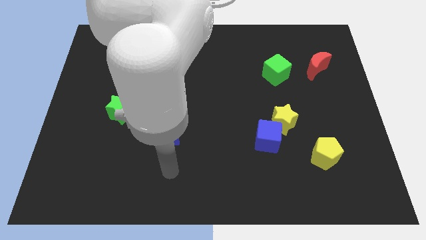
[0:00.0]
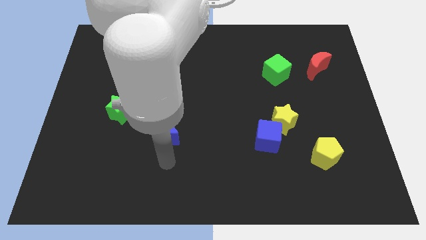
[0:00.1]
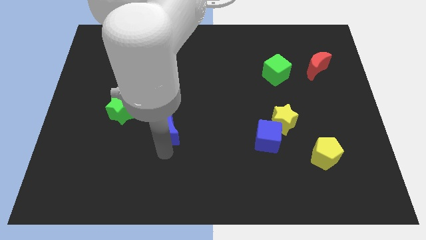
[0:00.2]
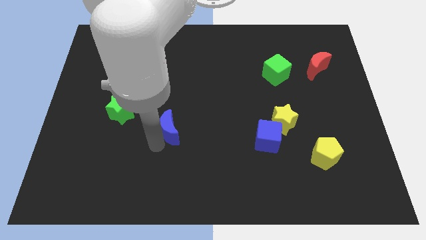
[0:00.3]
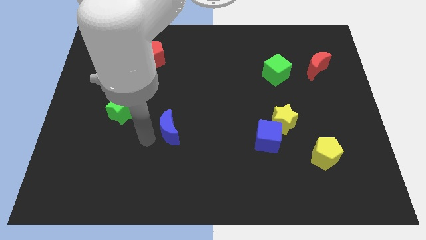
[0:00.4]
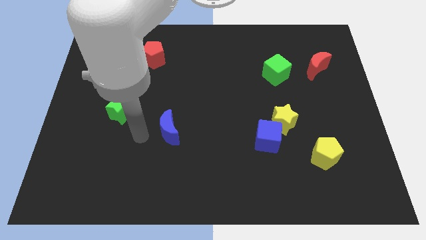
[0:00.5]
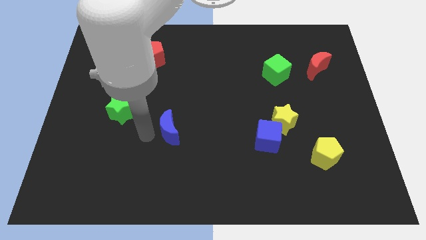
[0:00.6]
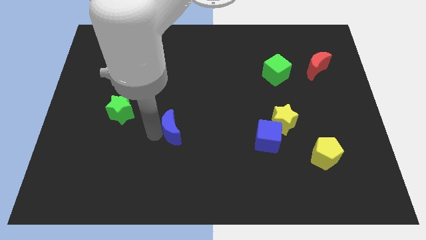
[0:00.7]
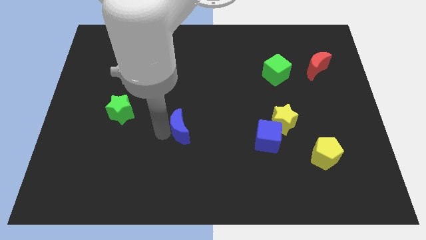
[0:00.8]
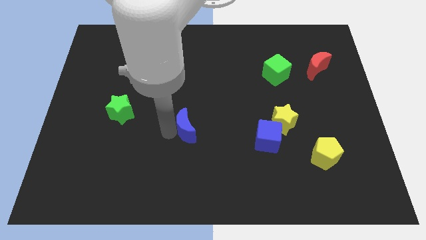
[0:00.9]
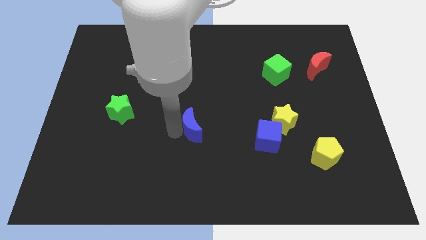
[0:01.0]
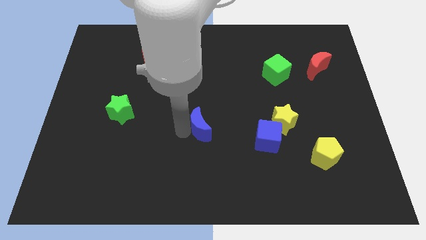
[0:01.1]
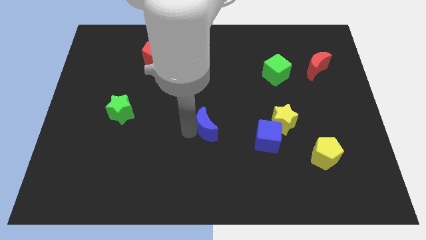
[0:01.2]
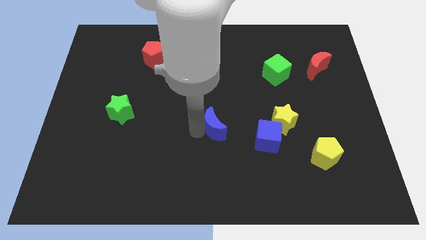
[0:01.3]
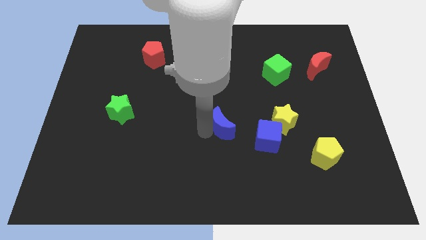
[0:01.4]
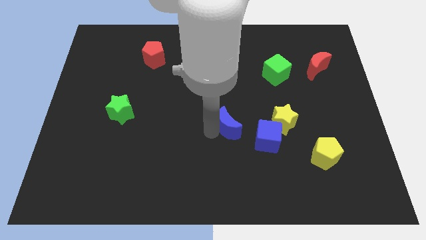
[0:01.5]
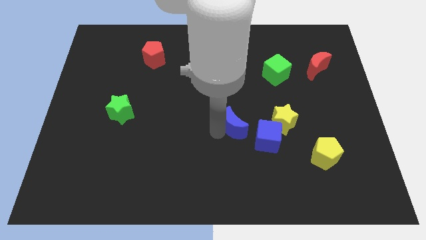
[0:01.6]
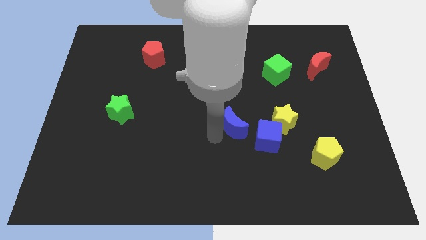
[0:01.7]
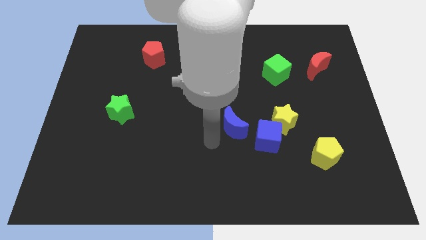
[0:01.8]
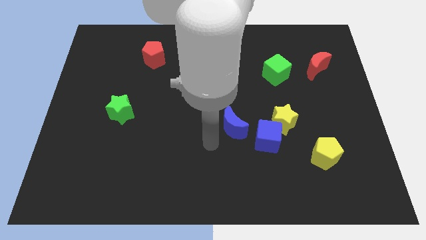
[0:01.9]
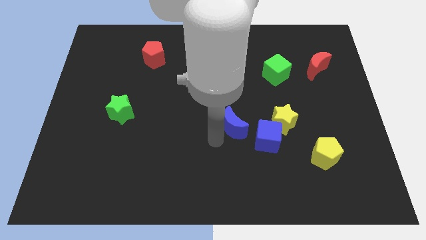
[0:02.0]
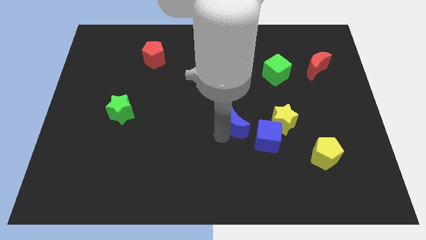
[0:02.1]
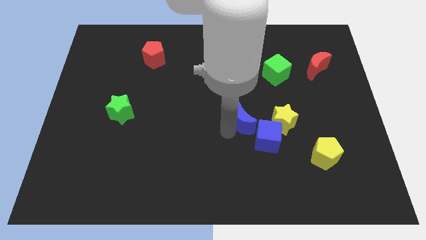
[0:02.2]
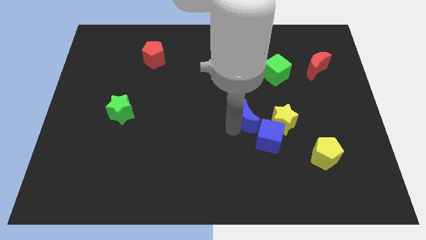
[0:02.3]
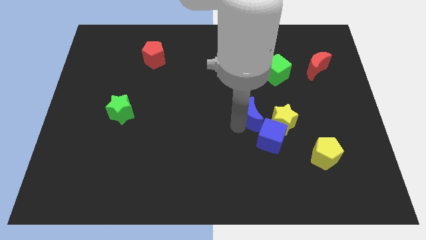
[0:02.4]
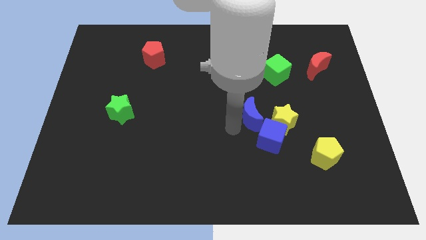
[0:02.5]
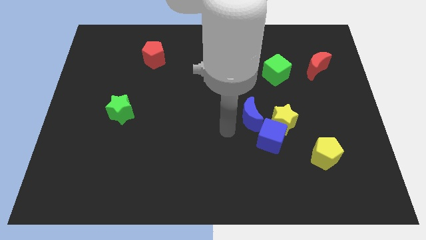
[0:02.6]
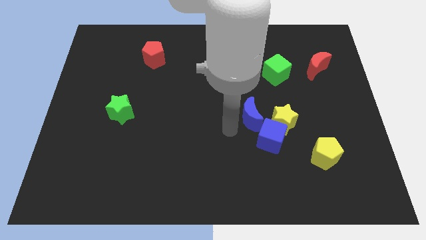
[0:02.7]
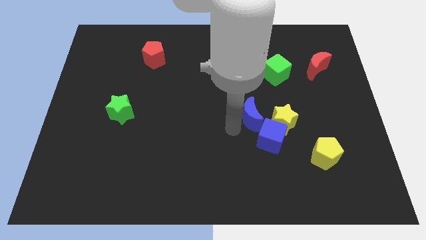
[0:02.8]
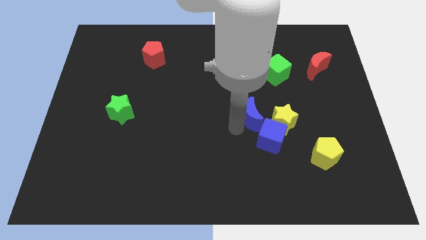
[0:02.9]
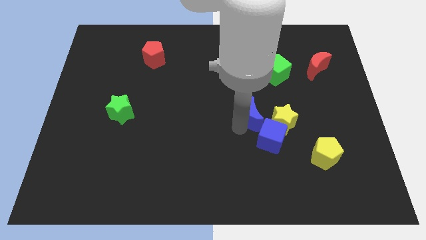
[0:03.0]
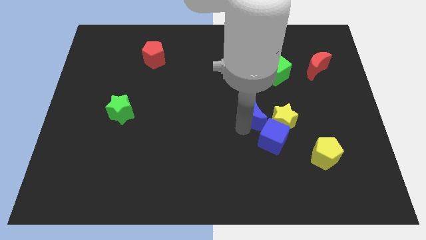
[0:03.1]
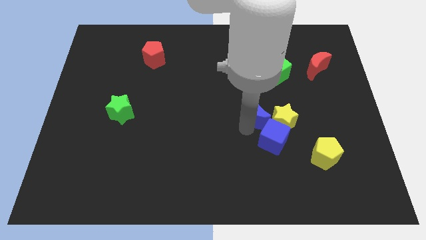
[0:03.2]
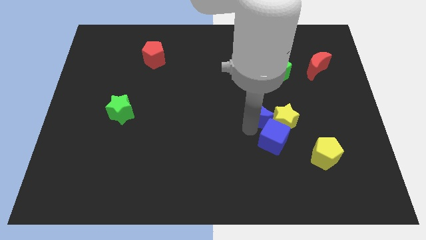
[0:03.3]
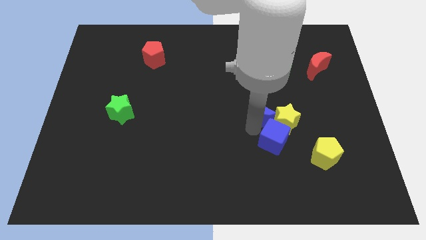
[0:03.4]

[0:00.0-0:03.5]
push the blue moon to the right

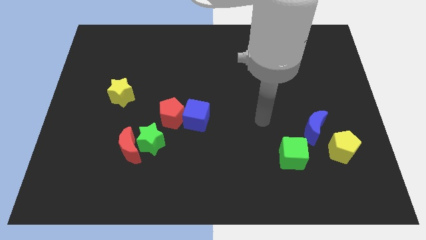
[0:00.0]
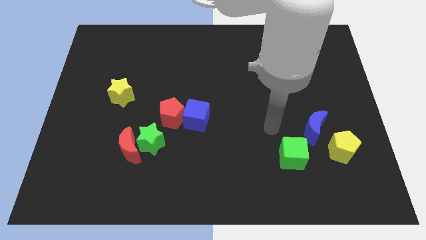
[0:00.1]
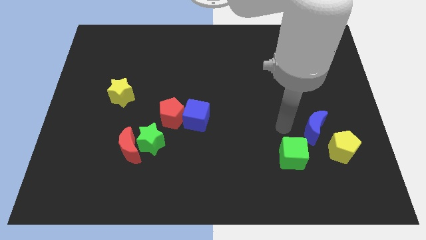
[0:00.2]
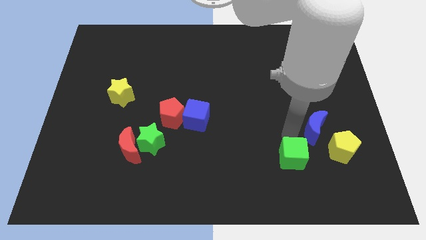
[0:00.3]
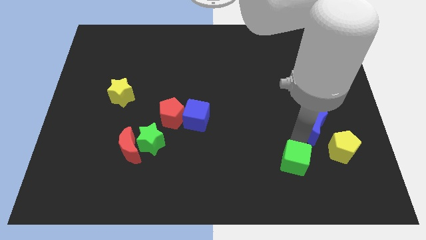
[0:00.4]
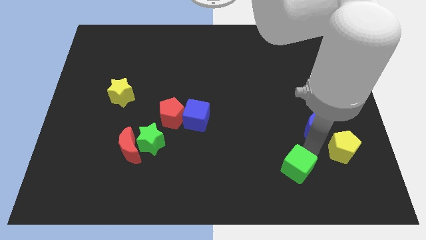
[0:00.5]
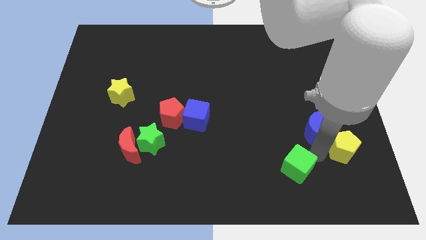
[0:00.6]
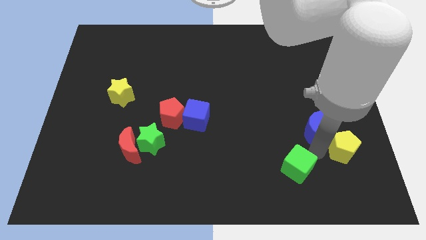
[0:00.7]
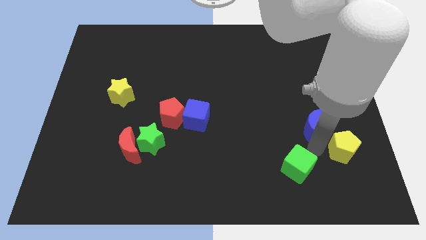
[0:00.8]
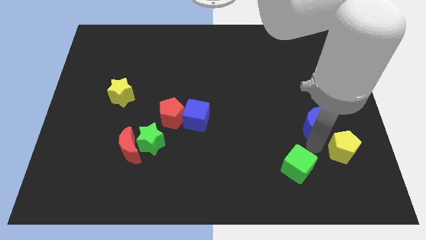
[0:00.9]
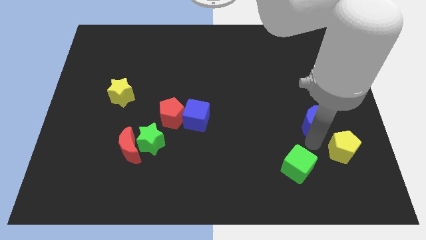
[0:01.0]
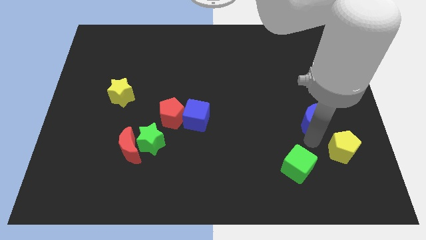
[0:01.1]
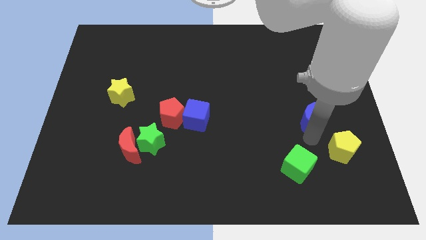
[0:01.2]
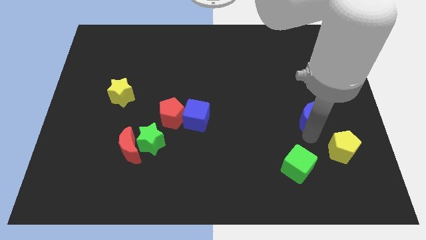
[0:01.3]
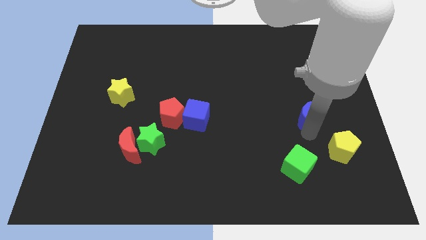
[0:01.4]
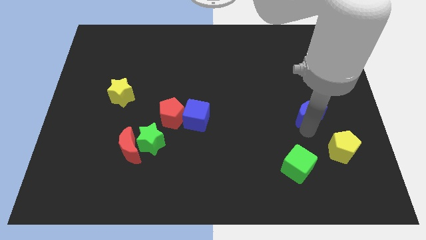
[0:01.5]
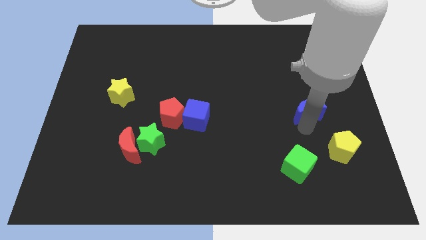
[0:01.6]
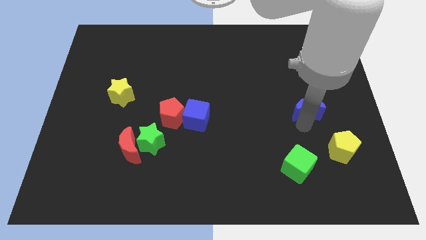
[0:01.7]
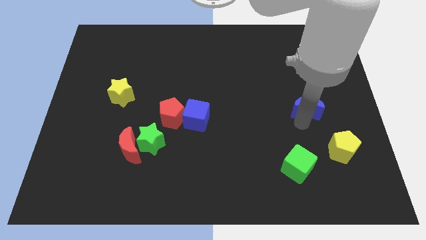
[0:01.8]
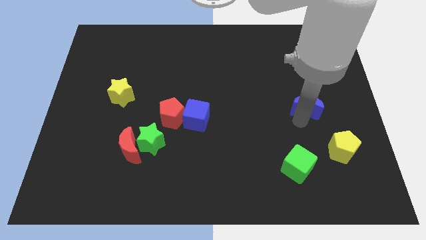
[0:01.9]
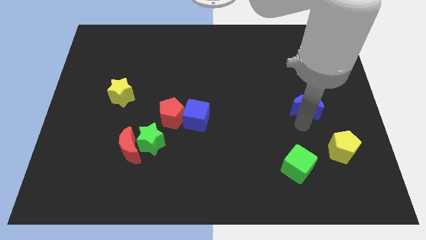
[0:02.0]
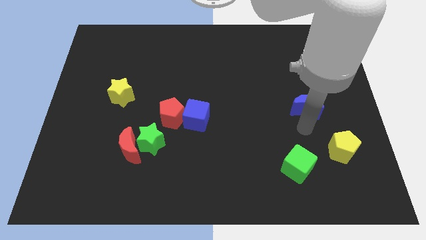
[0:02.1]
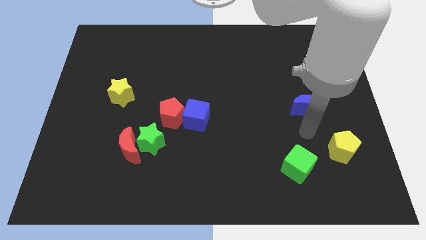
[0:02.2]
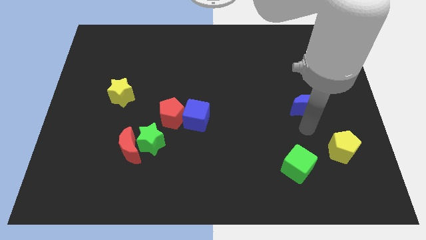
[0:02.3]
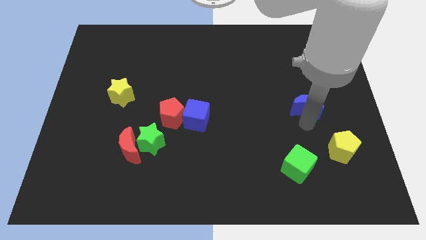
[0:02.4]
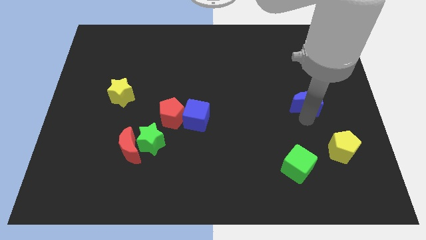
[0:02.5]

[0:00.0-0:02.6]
push the blue moon a little bit up

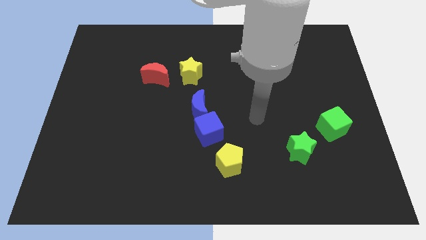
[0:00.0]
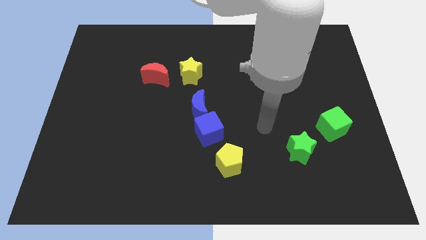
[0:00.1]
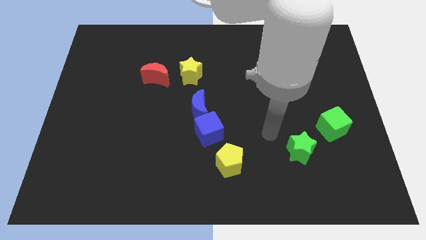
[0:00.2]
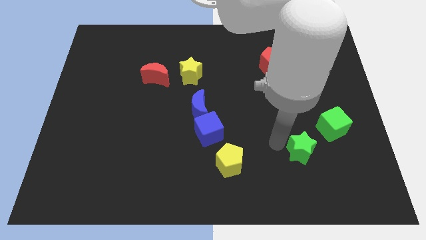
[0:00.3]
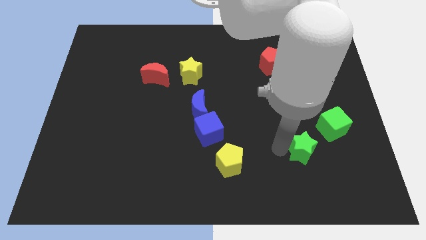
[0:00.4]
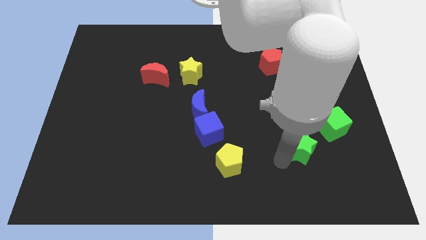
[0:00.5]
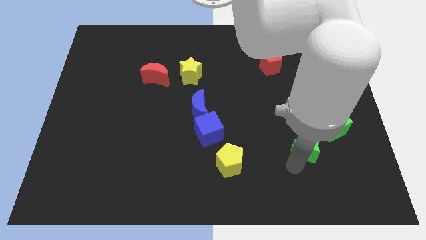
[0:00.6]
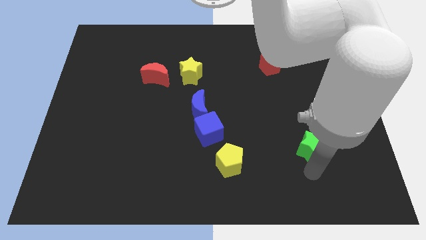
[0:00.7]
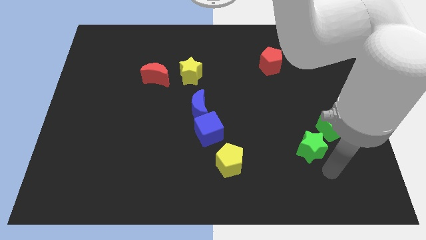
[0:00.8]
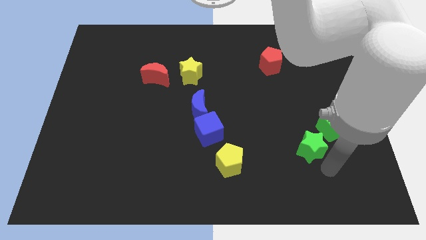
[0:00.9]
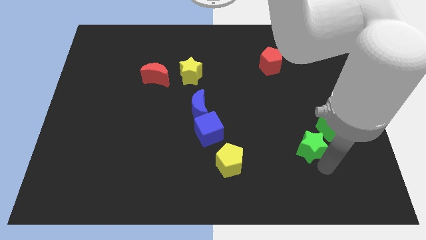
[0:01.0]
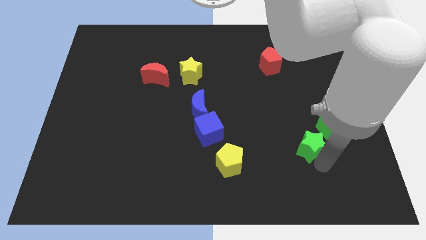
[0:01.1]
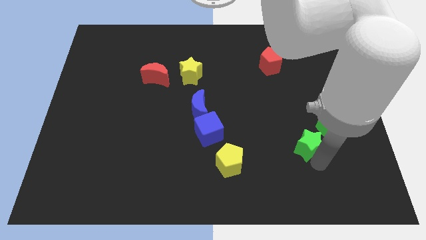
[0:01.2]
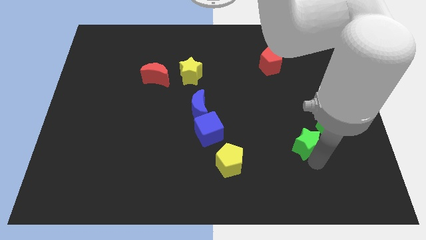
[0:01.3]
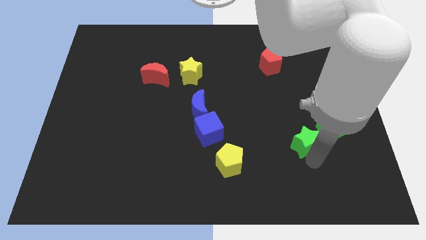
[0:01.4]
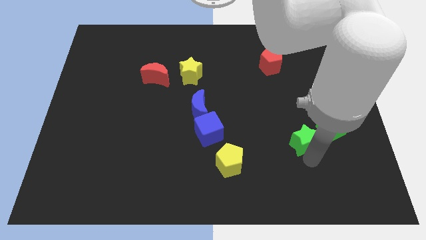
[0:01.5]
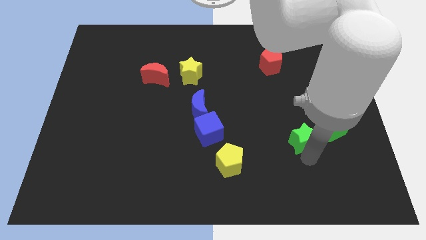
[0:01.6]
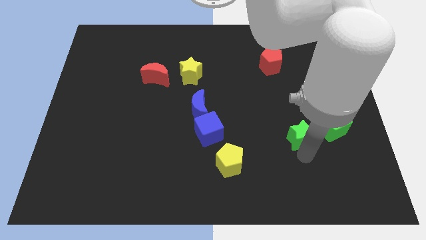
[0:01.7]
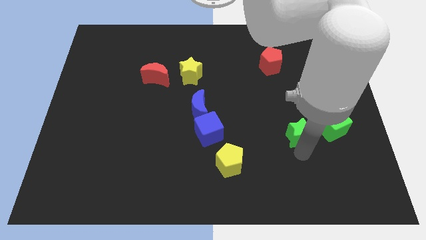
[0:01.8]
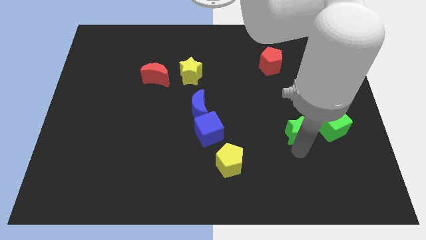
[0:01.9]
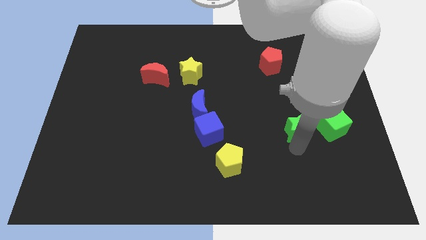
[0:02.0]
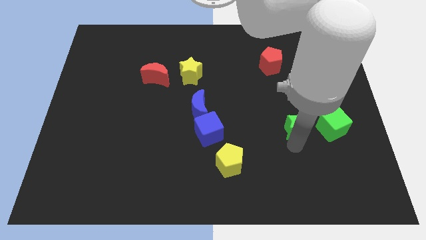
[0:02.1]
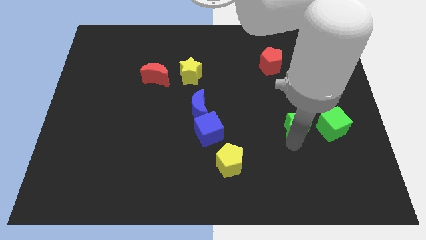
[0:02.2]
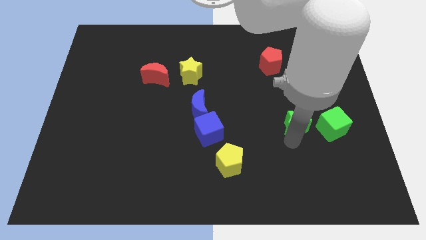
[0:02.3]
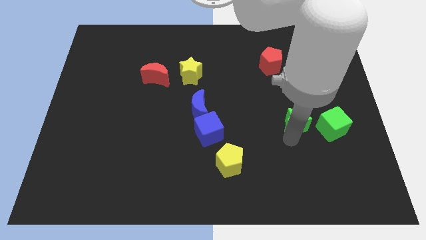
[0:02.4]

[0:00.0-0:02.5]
slightly slide the green star upwards
